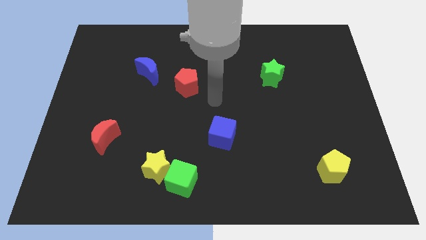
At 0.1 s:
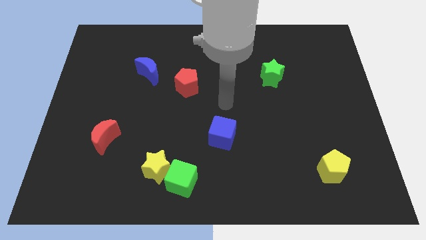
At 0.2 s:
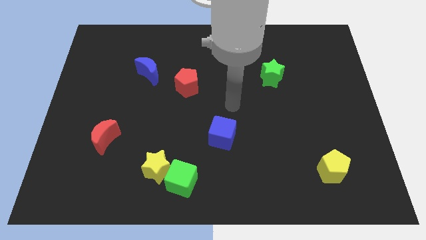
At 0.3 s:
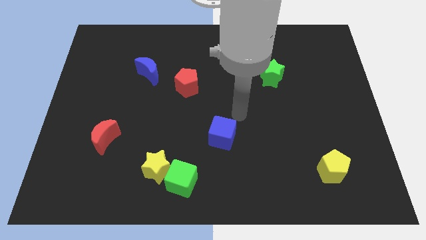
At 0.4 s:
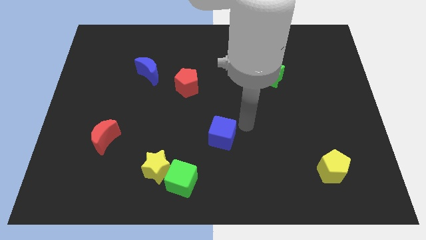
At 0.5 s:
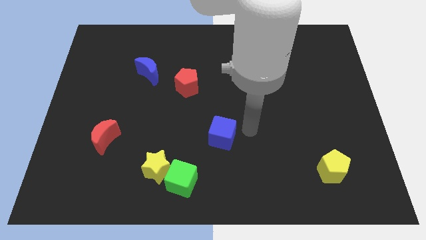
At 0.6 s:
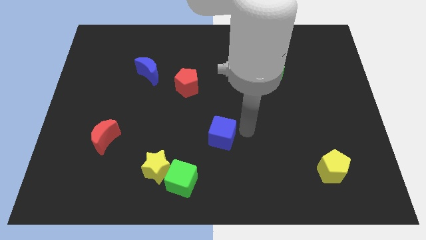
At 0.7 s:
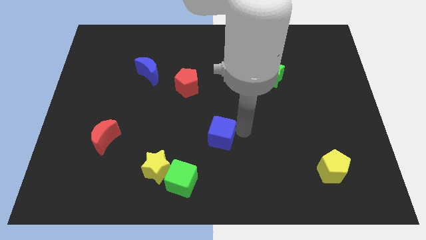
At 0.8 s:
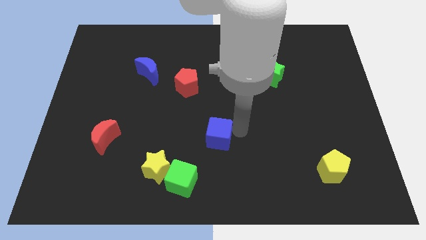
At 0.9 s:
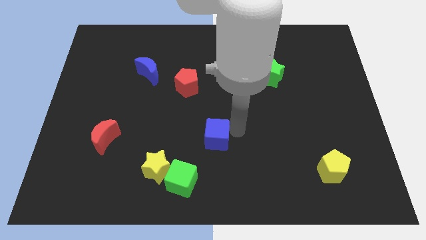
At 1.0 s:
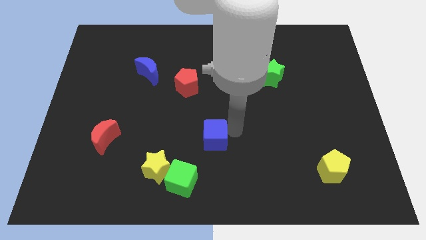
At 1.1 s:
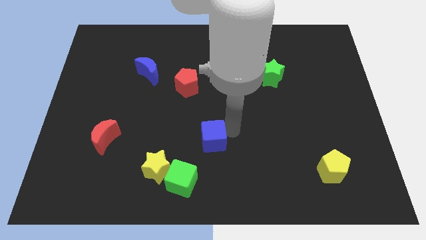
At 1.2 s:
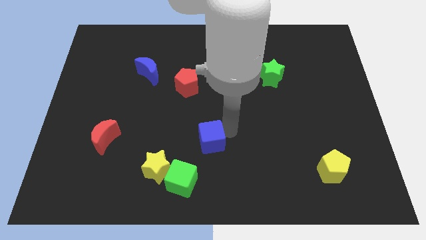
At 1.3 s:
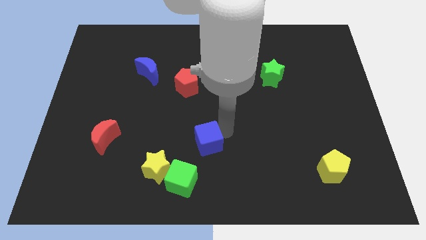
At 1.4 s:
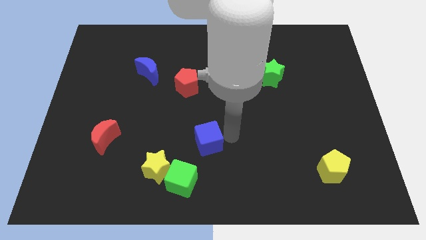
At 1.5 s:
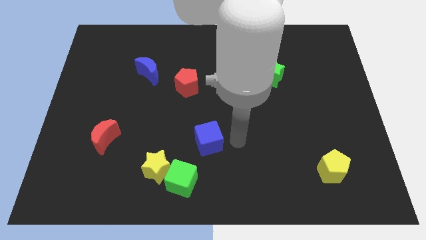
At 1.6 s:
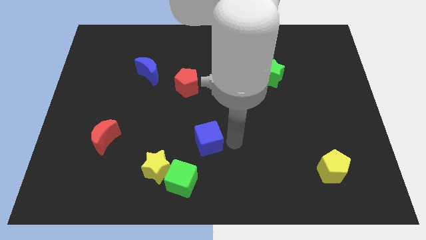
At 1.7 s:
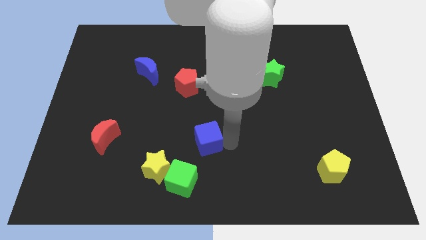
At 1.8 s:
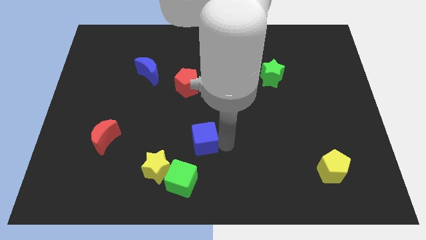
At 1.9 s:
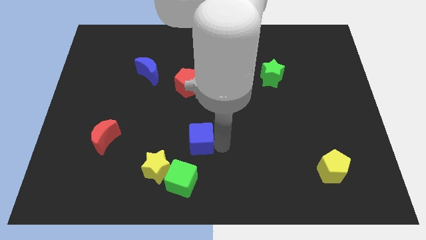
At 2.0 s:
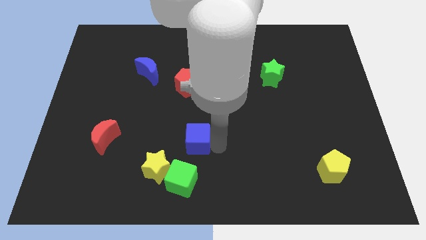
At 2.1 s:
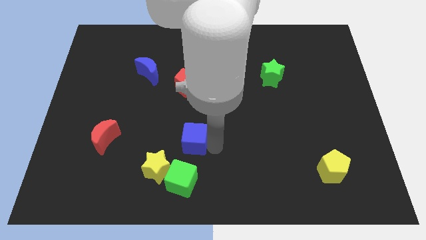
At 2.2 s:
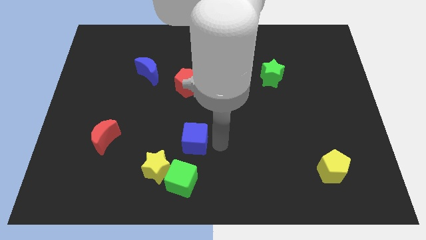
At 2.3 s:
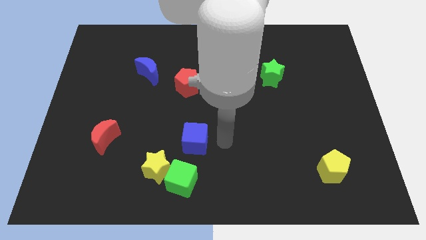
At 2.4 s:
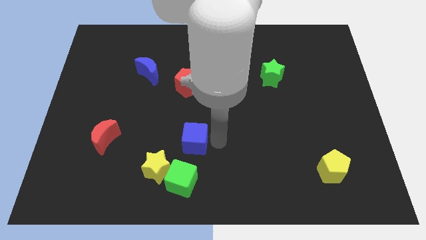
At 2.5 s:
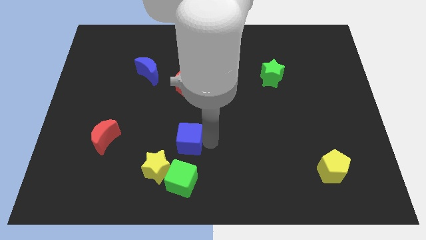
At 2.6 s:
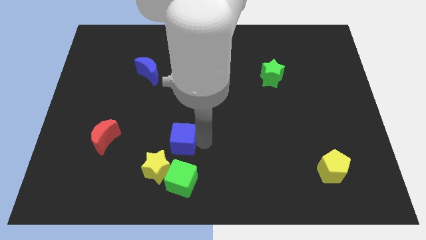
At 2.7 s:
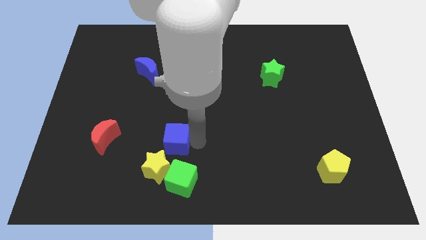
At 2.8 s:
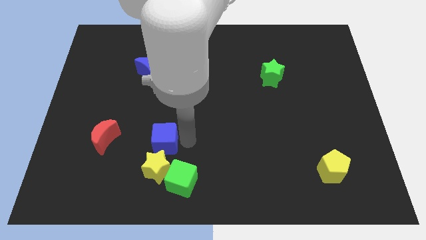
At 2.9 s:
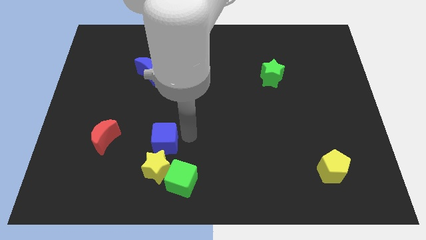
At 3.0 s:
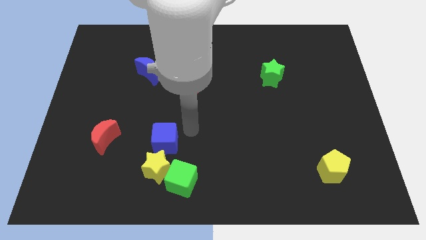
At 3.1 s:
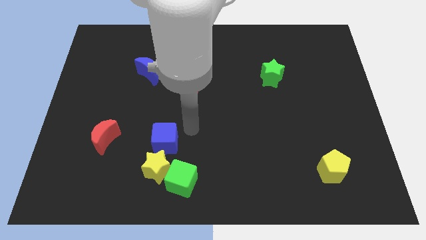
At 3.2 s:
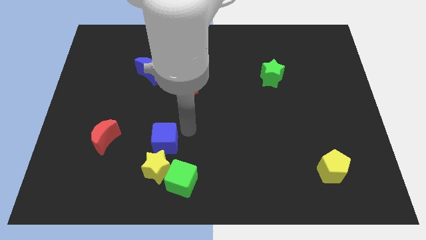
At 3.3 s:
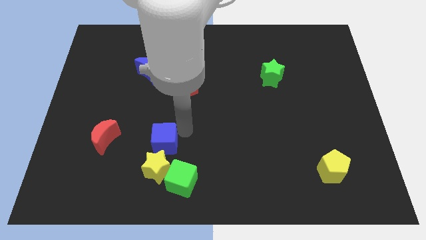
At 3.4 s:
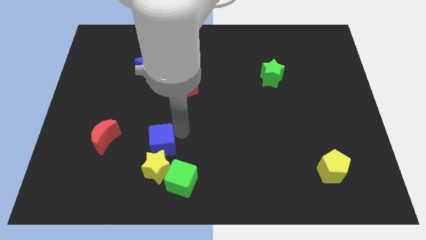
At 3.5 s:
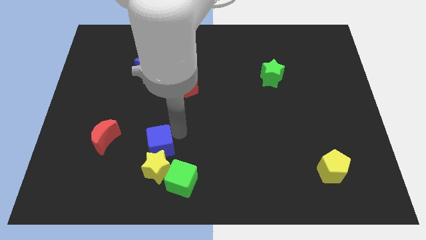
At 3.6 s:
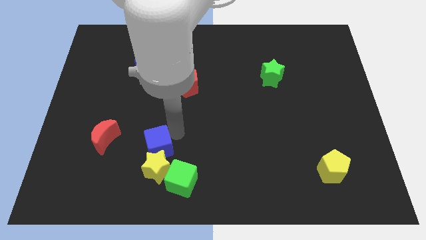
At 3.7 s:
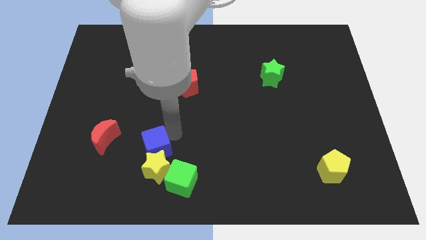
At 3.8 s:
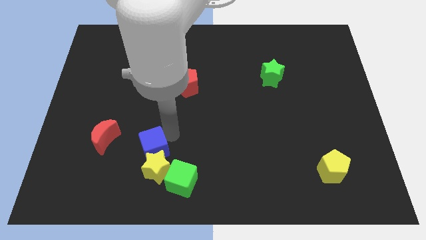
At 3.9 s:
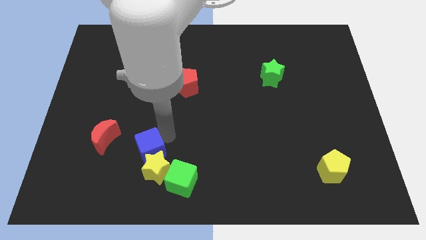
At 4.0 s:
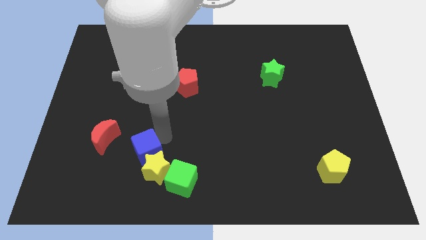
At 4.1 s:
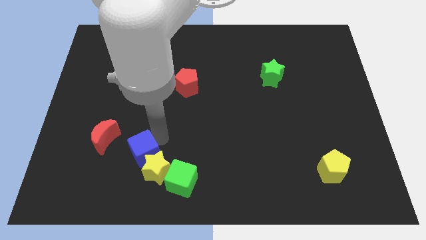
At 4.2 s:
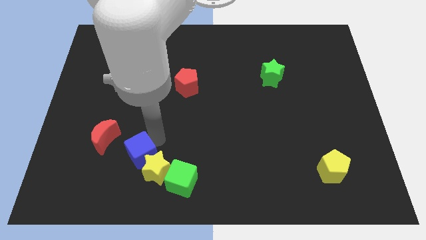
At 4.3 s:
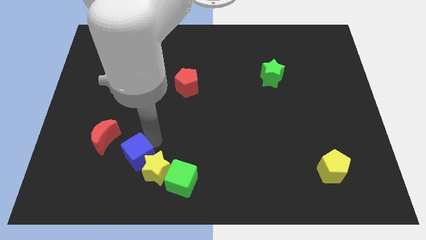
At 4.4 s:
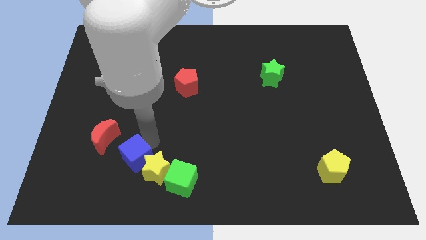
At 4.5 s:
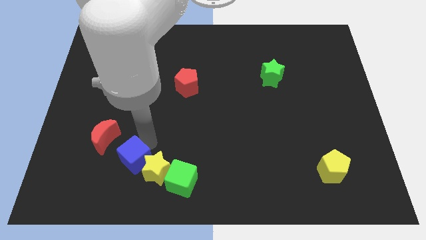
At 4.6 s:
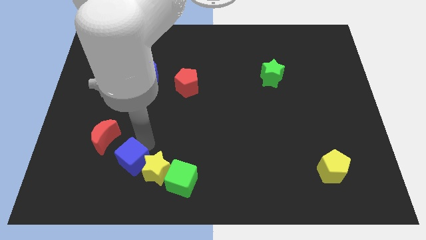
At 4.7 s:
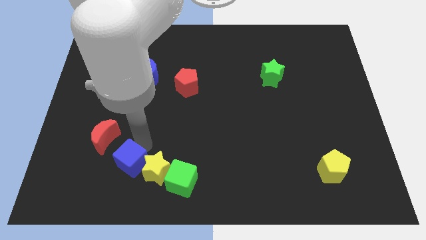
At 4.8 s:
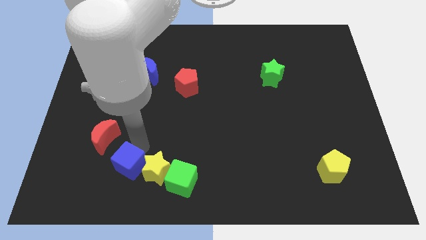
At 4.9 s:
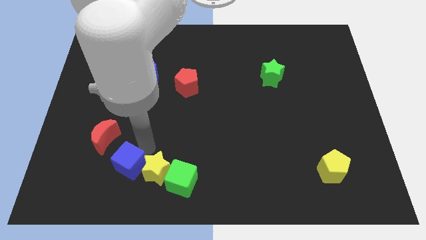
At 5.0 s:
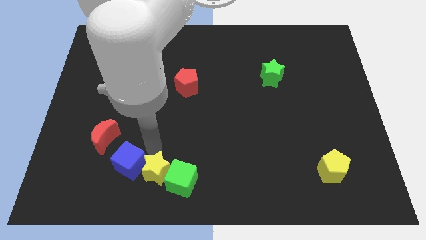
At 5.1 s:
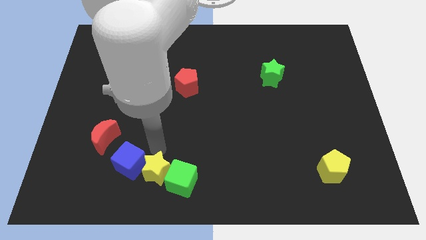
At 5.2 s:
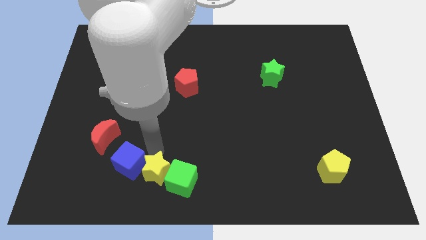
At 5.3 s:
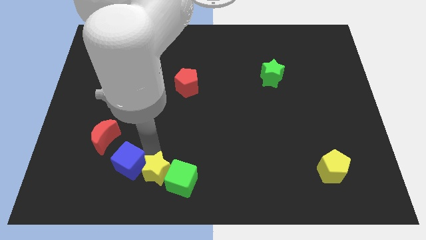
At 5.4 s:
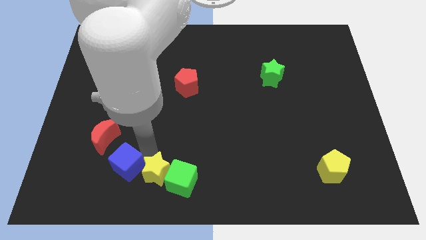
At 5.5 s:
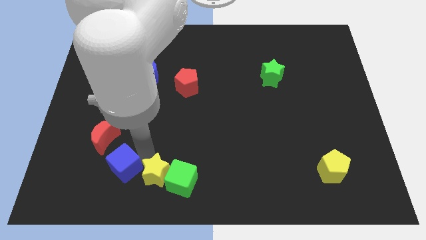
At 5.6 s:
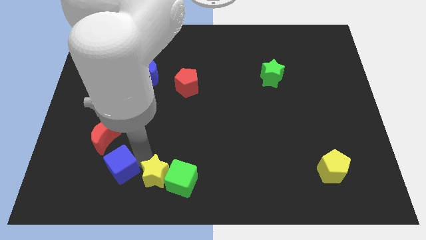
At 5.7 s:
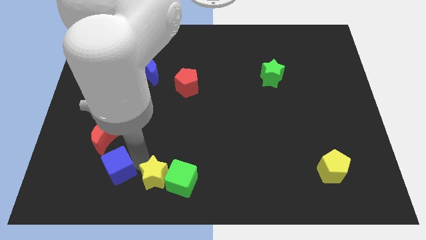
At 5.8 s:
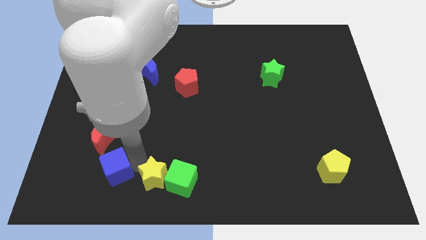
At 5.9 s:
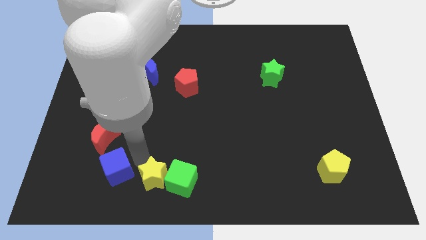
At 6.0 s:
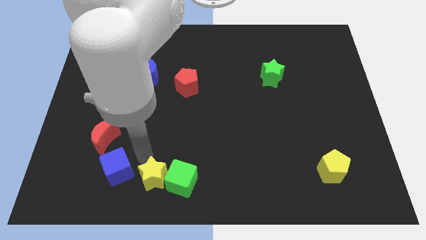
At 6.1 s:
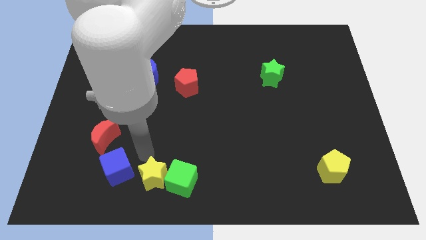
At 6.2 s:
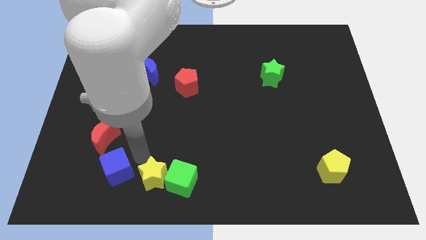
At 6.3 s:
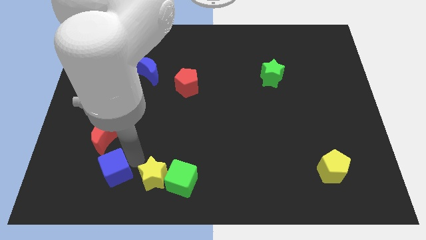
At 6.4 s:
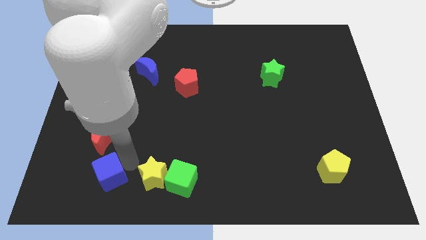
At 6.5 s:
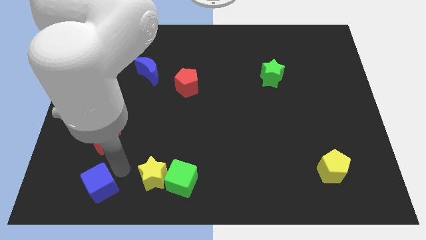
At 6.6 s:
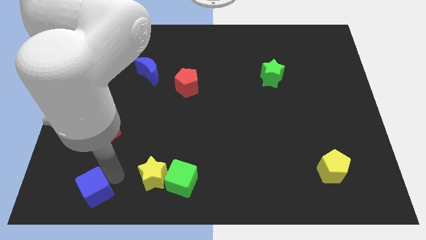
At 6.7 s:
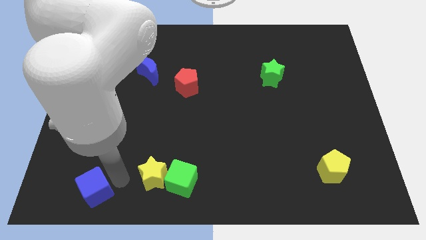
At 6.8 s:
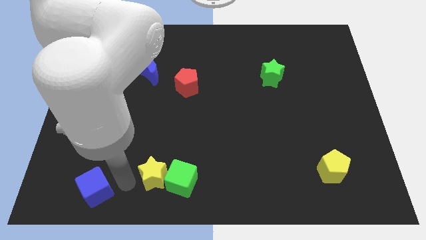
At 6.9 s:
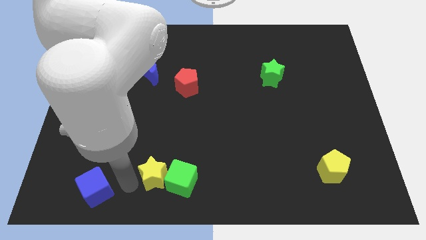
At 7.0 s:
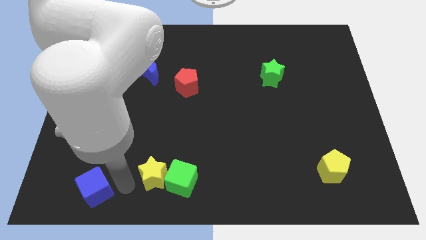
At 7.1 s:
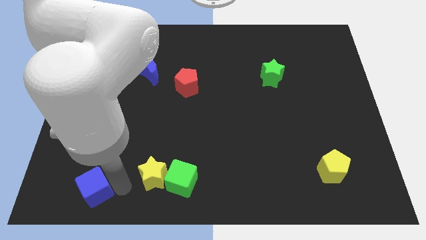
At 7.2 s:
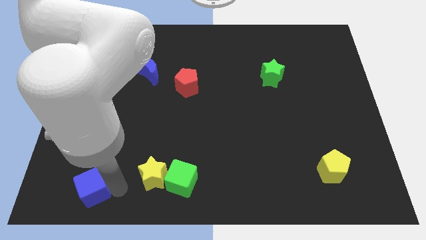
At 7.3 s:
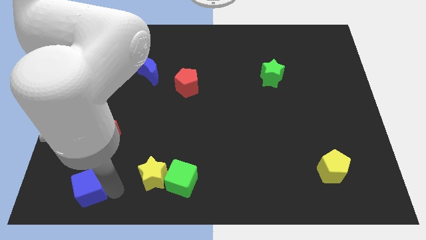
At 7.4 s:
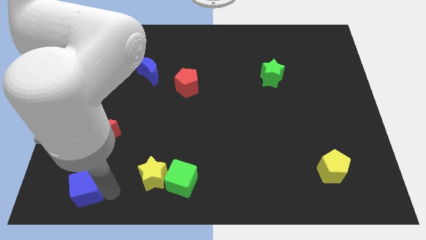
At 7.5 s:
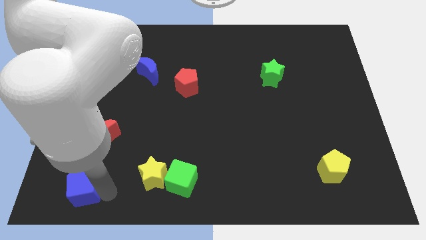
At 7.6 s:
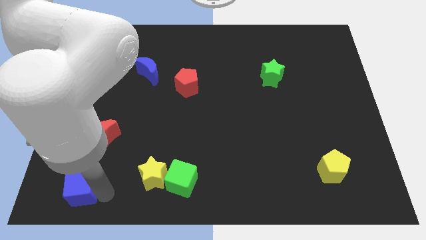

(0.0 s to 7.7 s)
slide the blue cube to the bottom left
